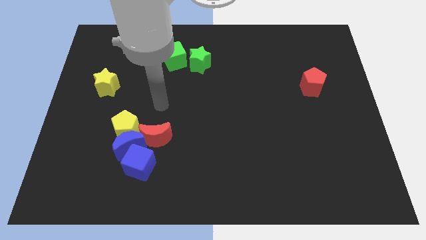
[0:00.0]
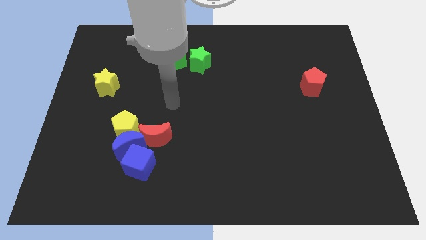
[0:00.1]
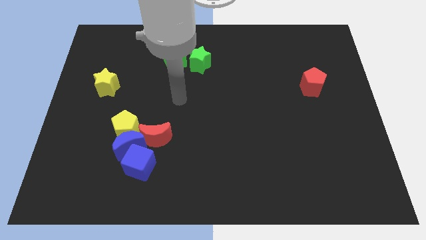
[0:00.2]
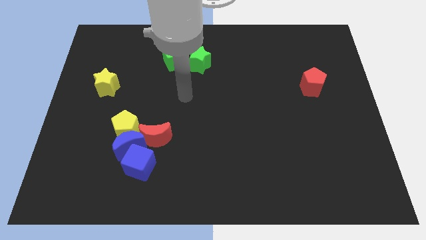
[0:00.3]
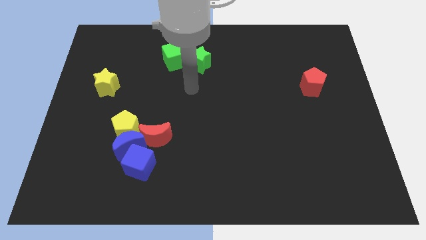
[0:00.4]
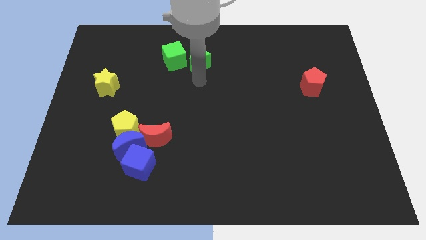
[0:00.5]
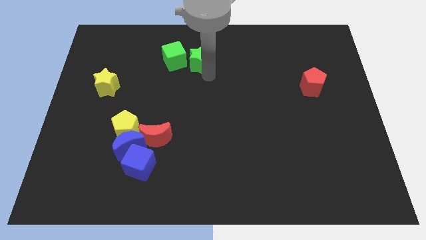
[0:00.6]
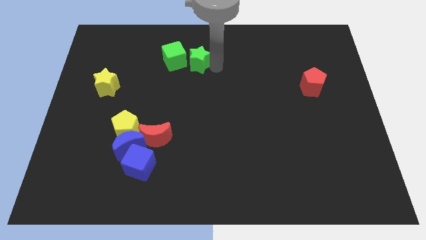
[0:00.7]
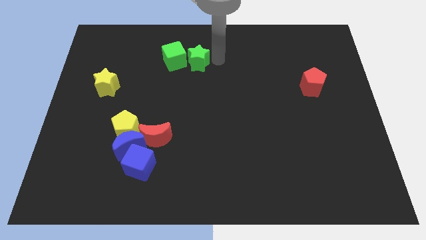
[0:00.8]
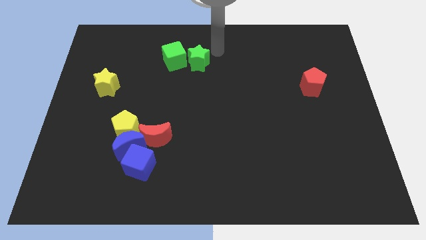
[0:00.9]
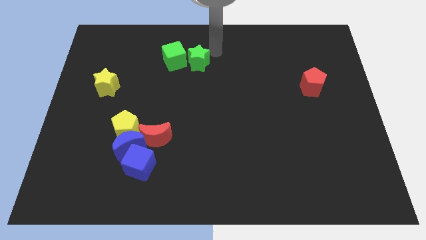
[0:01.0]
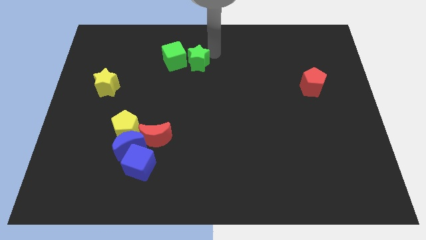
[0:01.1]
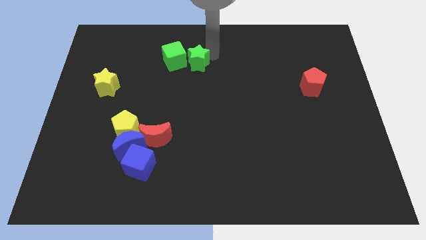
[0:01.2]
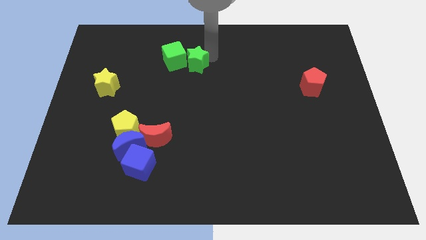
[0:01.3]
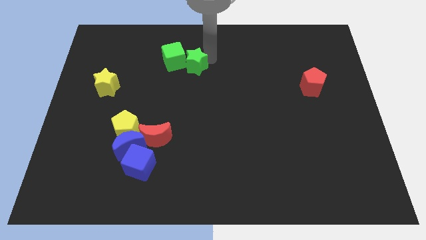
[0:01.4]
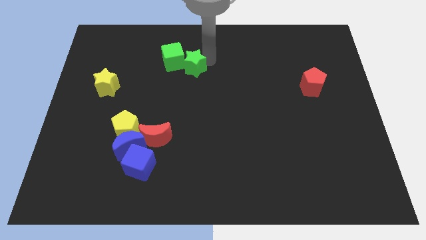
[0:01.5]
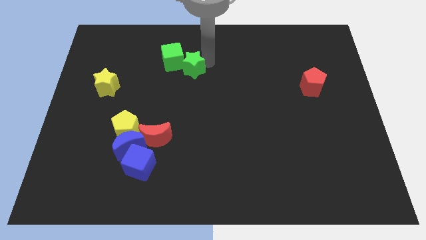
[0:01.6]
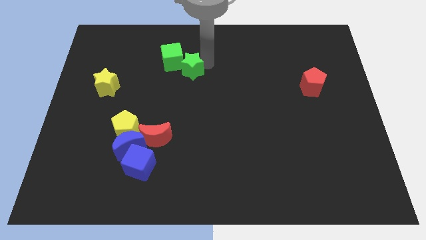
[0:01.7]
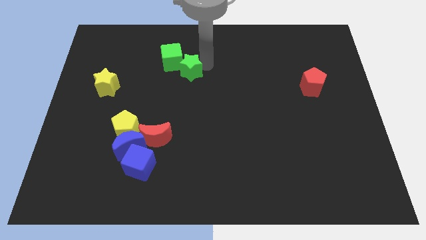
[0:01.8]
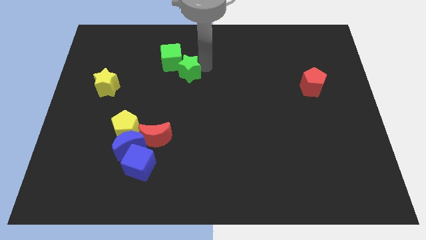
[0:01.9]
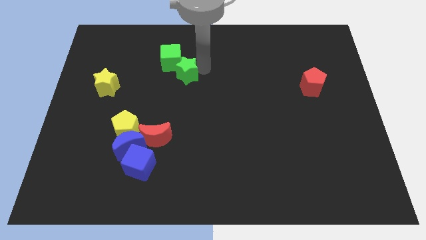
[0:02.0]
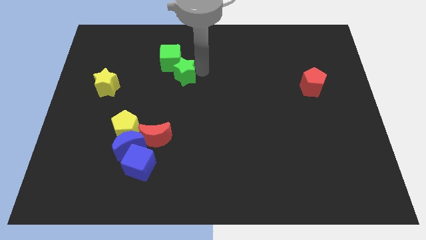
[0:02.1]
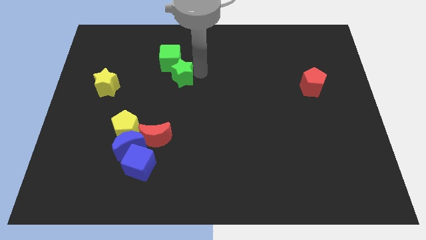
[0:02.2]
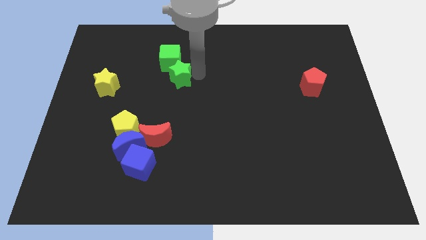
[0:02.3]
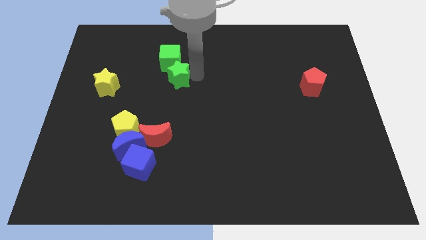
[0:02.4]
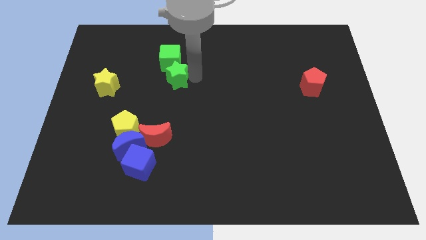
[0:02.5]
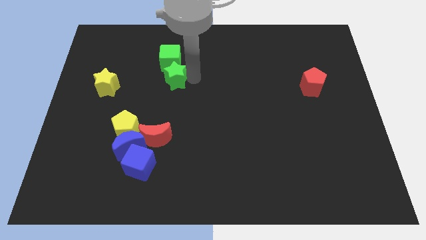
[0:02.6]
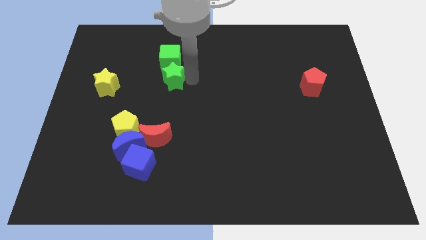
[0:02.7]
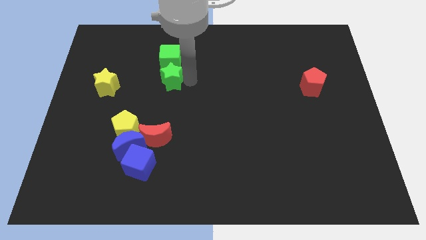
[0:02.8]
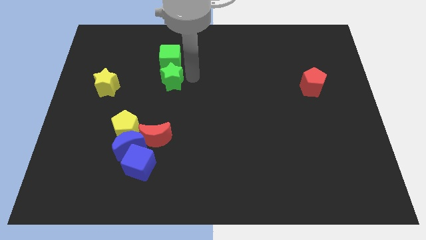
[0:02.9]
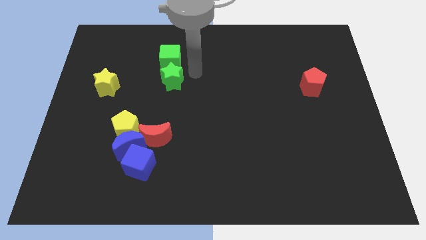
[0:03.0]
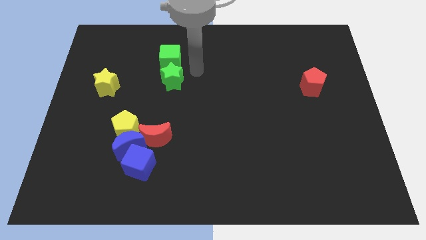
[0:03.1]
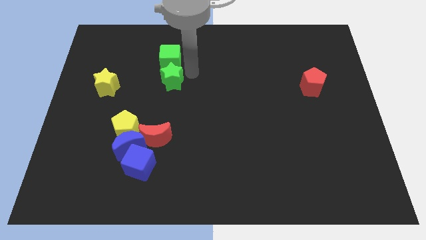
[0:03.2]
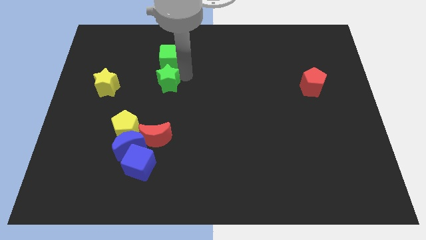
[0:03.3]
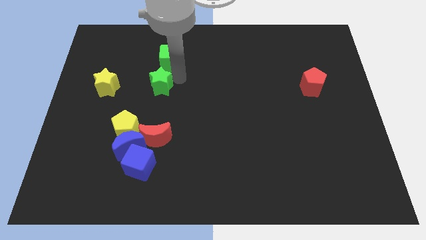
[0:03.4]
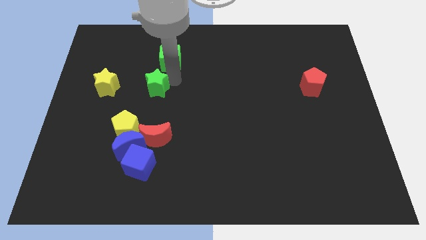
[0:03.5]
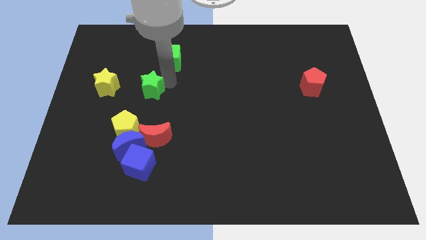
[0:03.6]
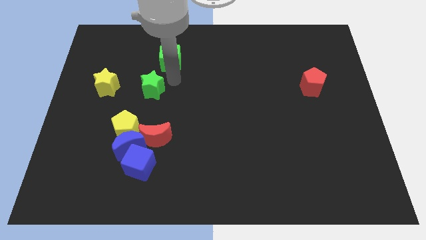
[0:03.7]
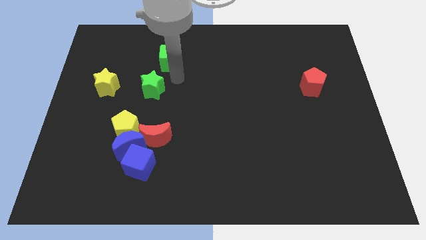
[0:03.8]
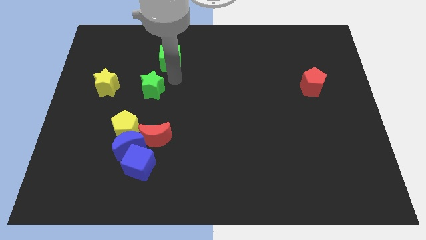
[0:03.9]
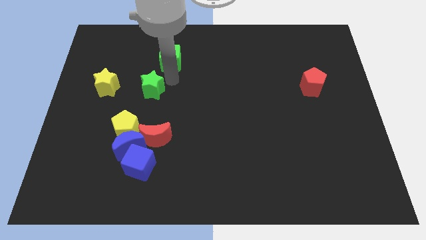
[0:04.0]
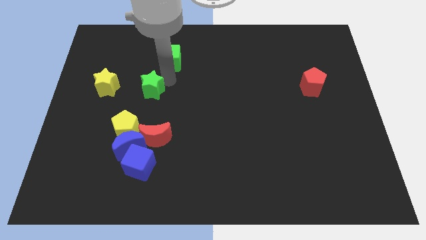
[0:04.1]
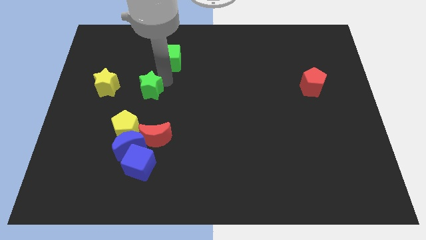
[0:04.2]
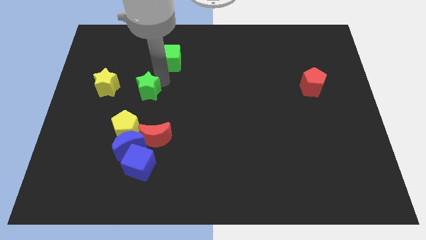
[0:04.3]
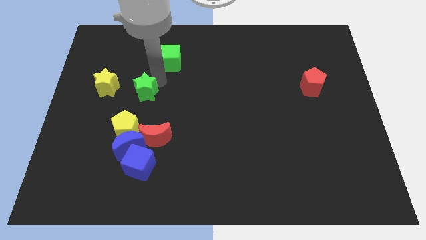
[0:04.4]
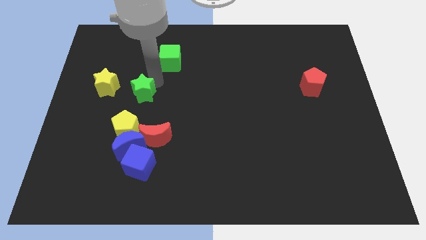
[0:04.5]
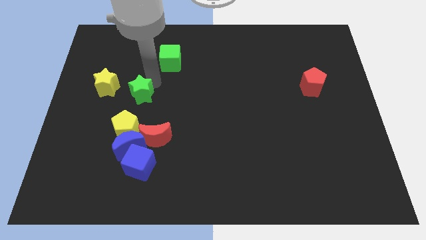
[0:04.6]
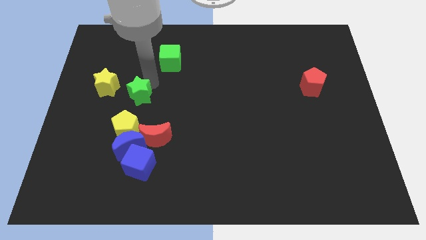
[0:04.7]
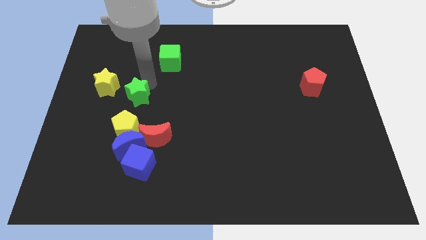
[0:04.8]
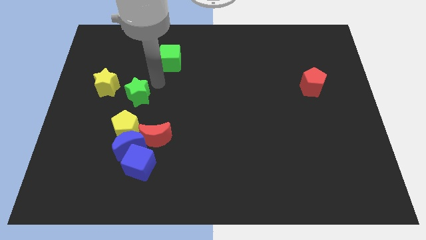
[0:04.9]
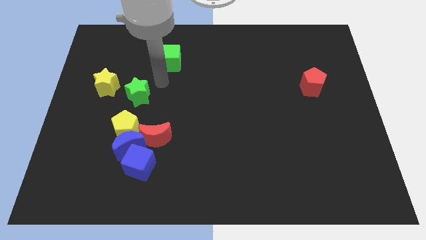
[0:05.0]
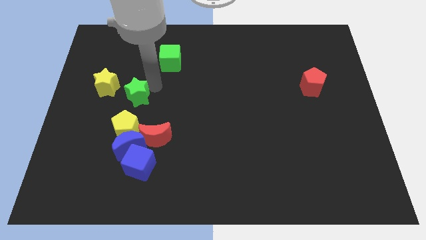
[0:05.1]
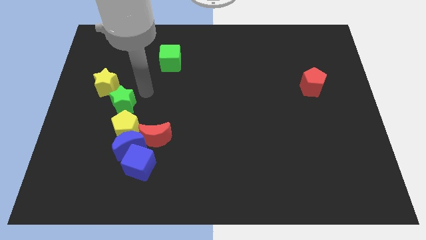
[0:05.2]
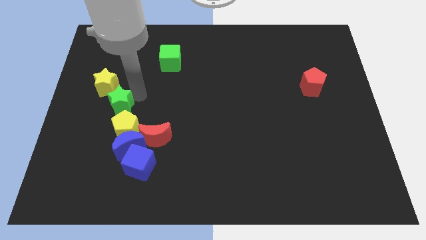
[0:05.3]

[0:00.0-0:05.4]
push the green star to the bottom side of the yellow star

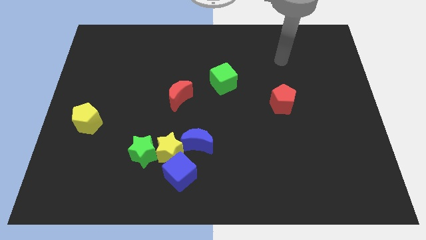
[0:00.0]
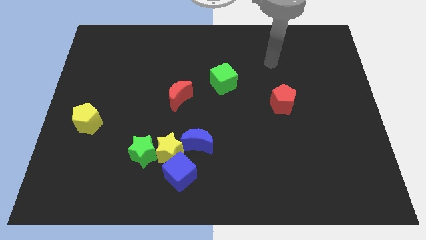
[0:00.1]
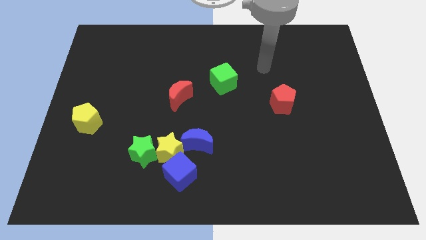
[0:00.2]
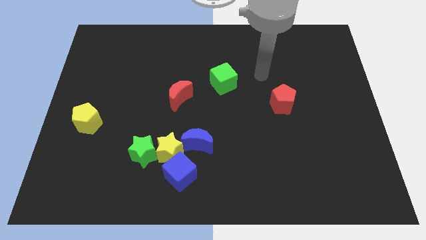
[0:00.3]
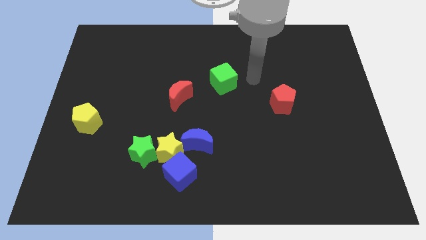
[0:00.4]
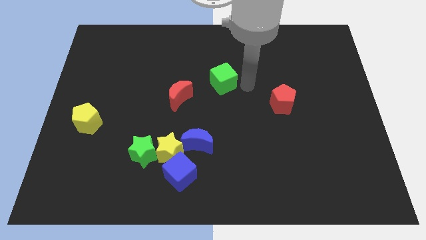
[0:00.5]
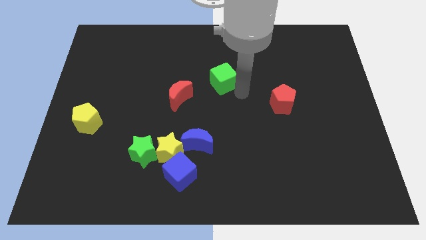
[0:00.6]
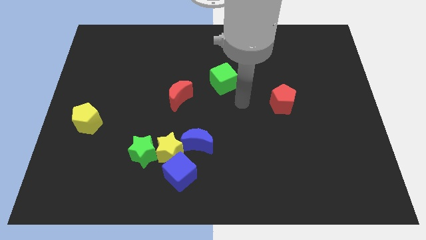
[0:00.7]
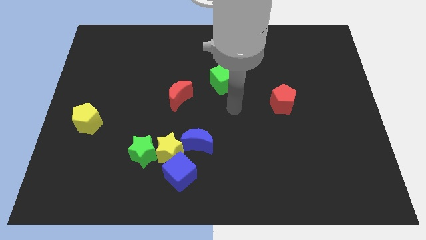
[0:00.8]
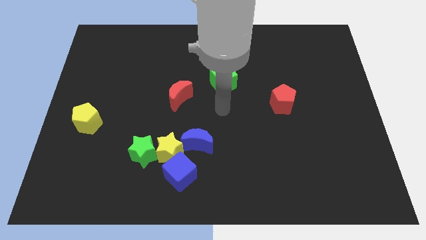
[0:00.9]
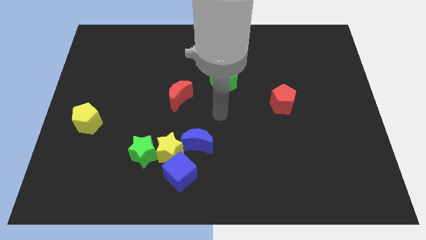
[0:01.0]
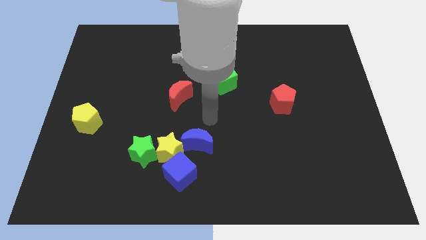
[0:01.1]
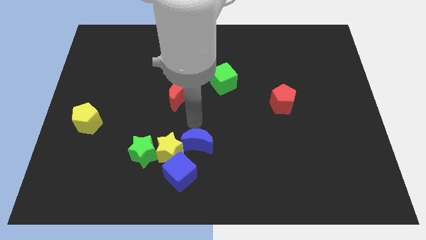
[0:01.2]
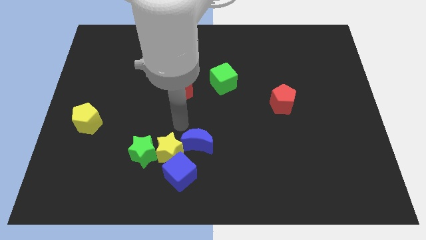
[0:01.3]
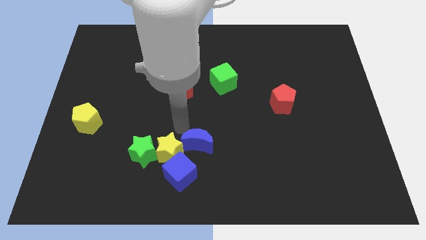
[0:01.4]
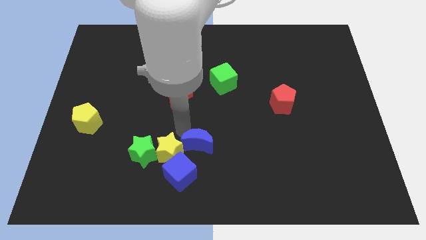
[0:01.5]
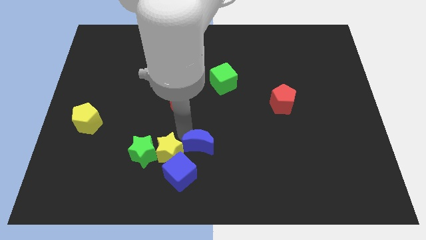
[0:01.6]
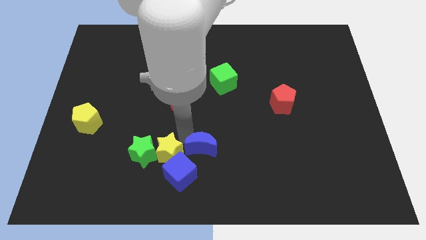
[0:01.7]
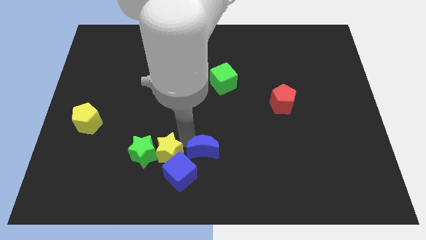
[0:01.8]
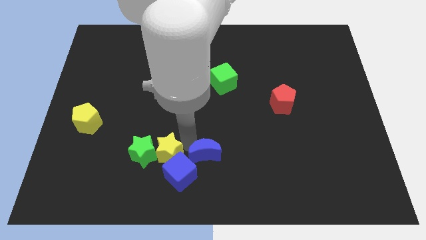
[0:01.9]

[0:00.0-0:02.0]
move the blue moon to the right of the blue cube

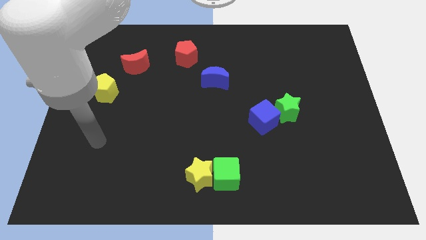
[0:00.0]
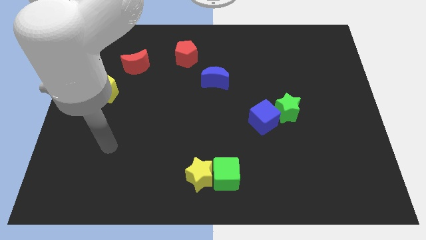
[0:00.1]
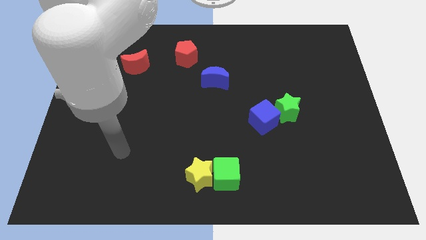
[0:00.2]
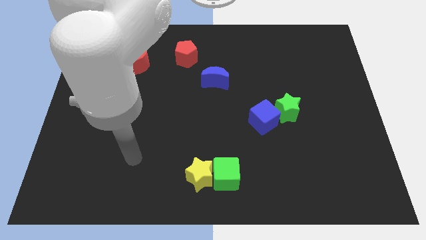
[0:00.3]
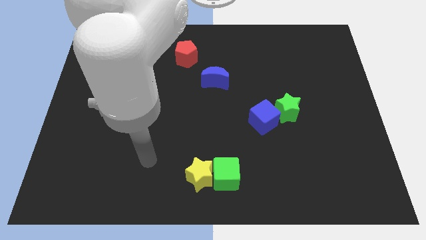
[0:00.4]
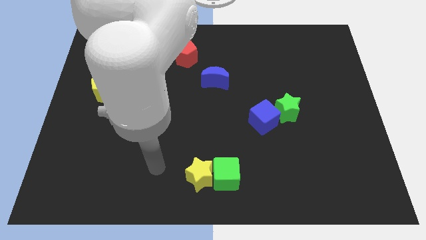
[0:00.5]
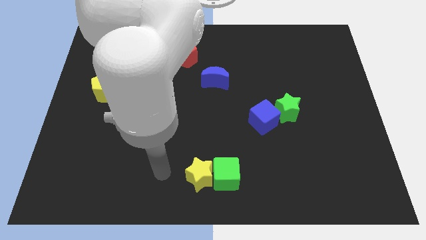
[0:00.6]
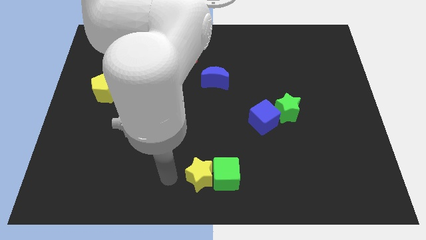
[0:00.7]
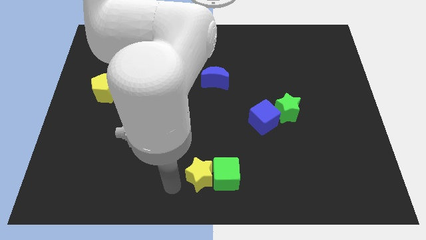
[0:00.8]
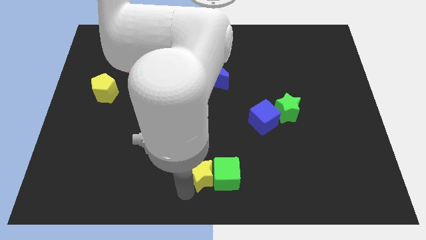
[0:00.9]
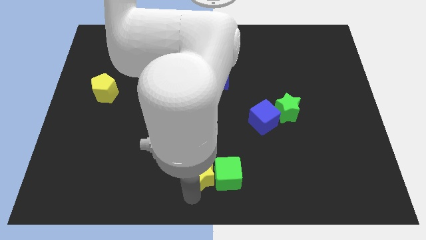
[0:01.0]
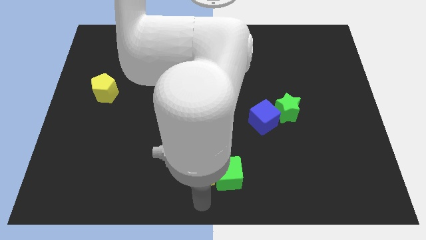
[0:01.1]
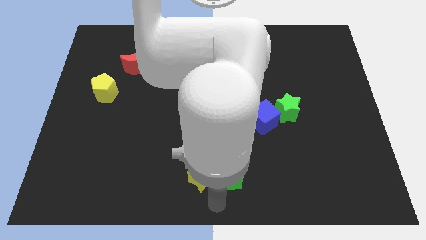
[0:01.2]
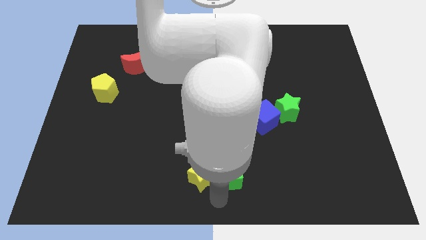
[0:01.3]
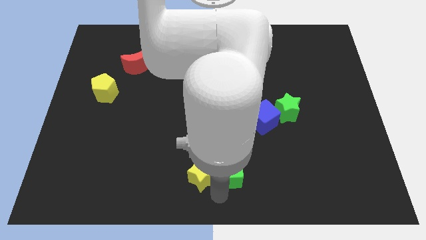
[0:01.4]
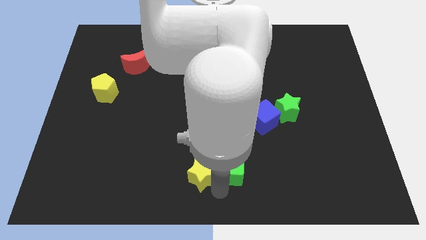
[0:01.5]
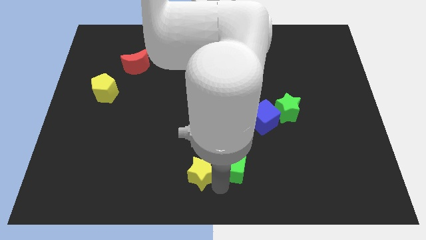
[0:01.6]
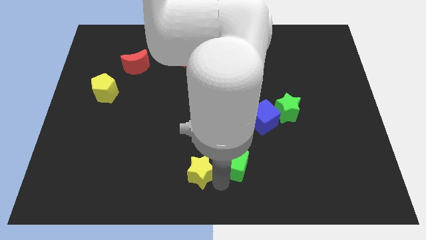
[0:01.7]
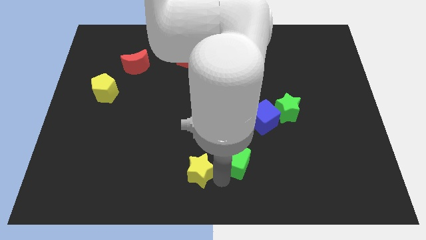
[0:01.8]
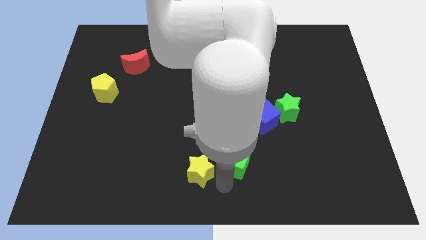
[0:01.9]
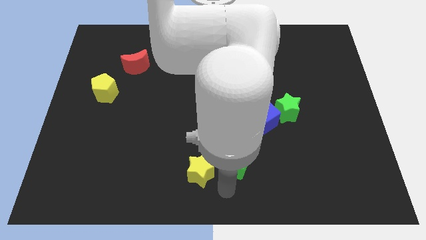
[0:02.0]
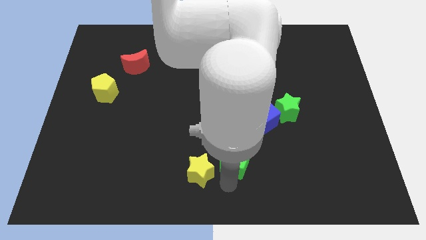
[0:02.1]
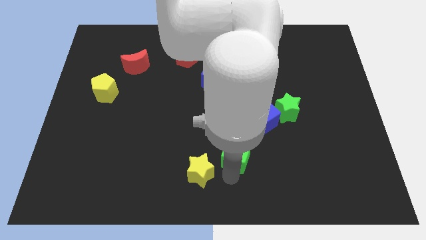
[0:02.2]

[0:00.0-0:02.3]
move the green cube to the bottom left of the blue cube
